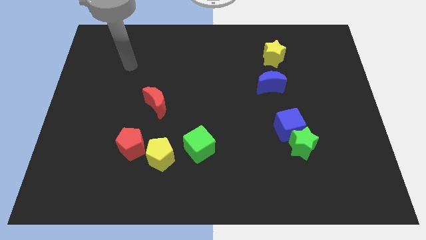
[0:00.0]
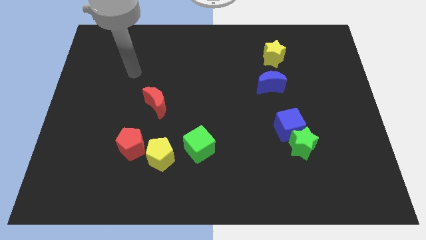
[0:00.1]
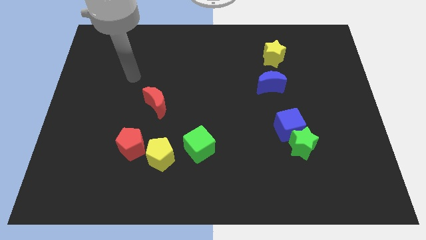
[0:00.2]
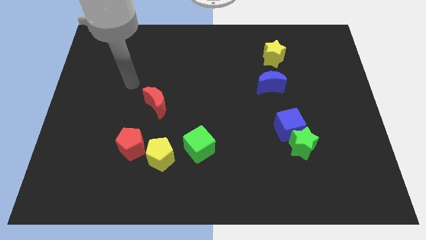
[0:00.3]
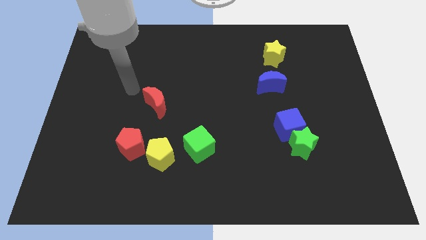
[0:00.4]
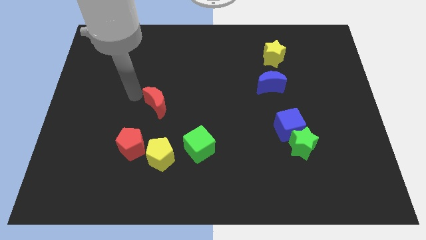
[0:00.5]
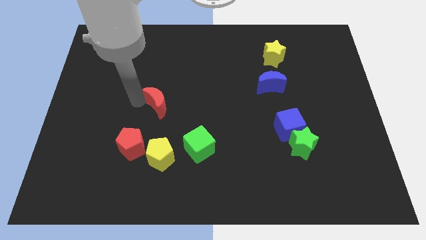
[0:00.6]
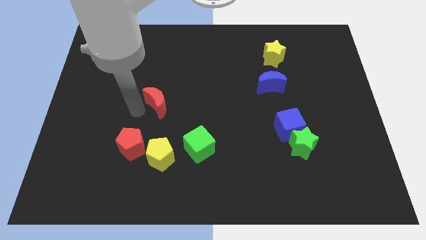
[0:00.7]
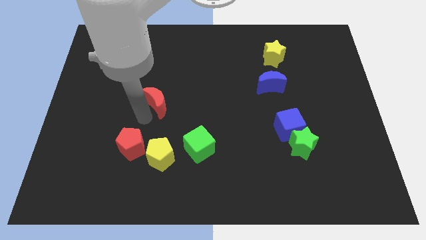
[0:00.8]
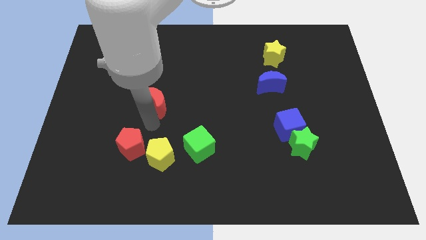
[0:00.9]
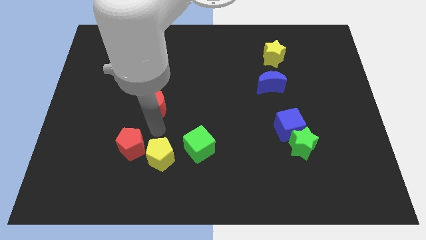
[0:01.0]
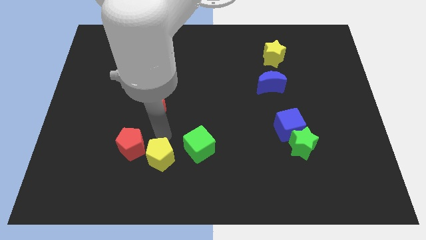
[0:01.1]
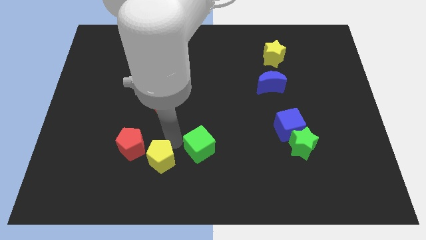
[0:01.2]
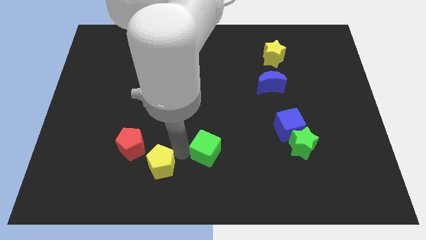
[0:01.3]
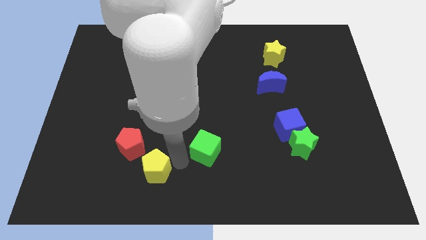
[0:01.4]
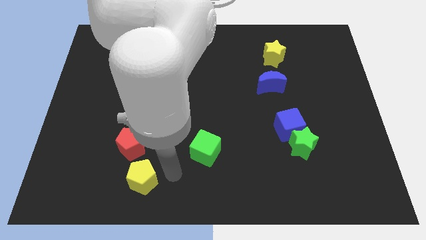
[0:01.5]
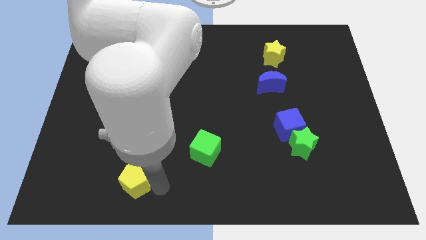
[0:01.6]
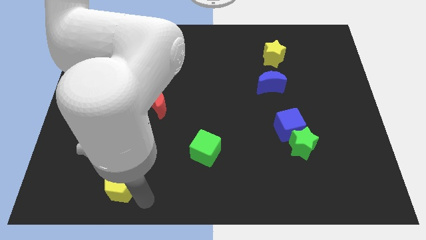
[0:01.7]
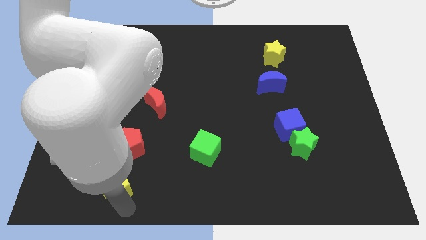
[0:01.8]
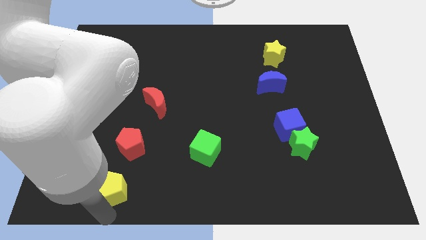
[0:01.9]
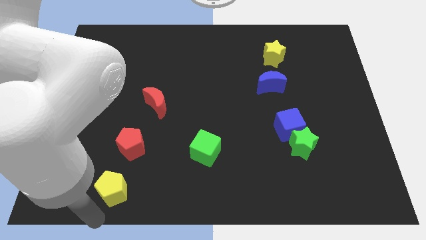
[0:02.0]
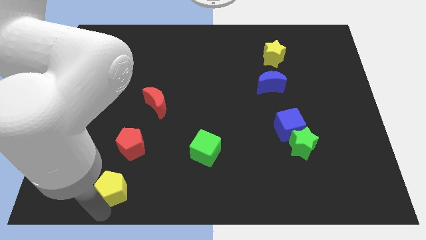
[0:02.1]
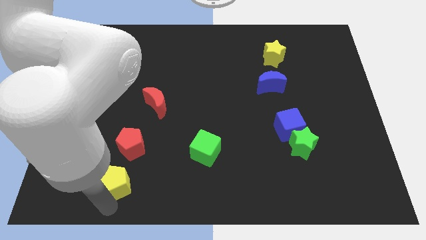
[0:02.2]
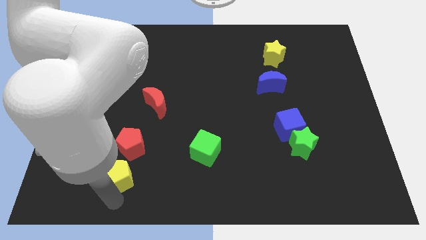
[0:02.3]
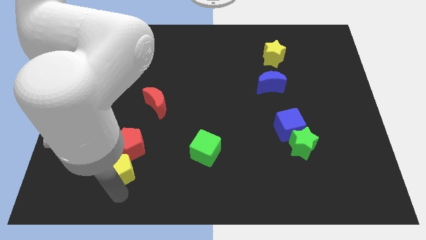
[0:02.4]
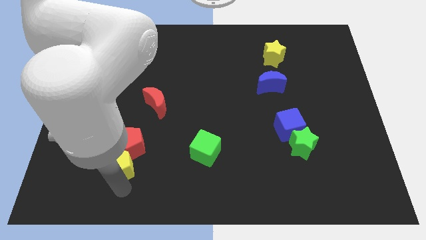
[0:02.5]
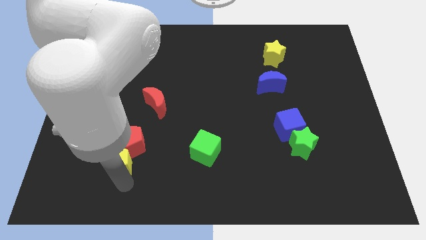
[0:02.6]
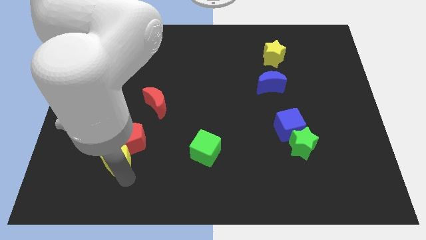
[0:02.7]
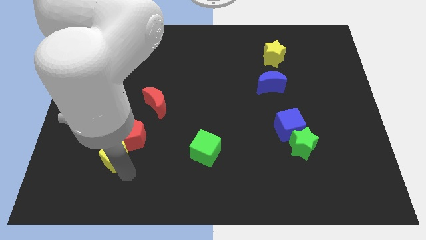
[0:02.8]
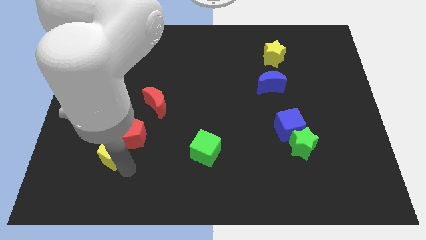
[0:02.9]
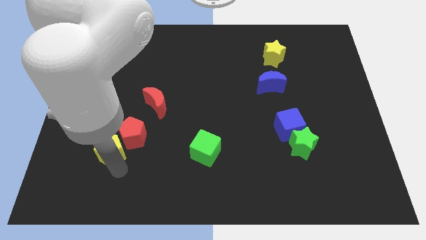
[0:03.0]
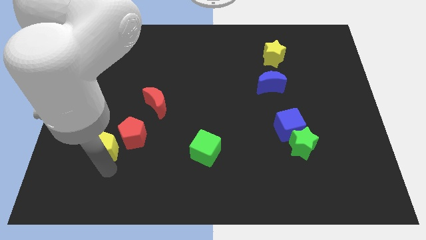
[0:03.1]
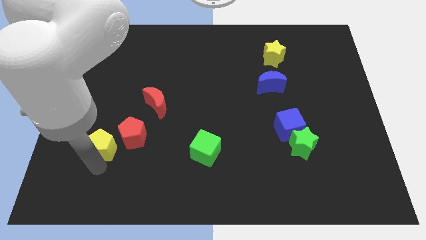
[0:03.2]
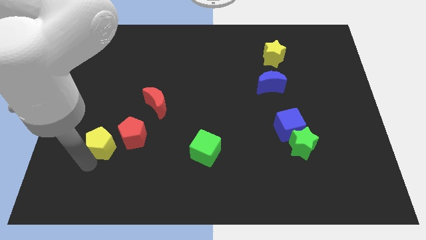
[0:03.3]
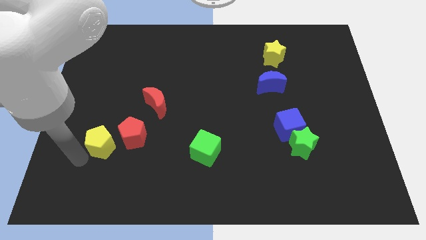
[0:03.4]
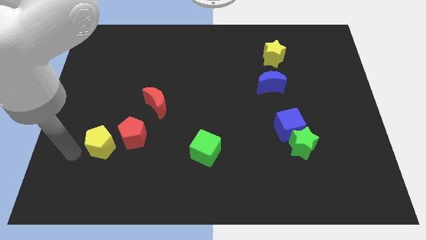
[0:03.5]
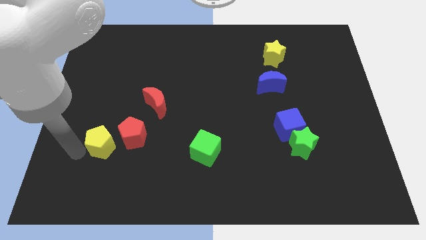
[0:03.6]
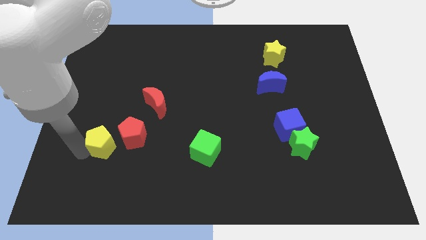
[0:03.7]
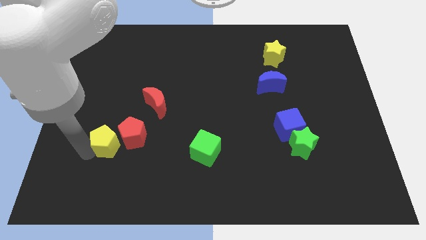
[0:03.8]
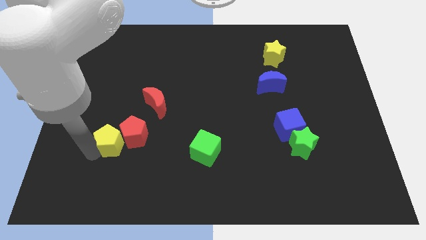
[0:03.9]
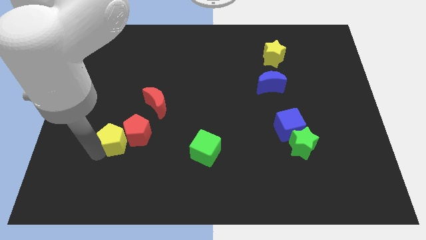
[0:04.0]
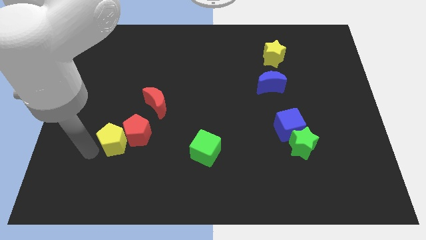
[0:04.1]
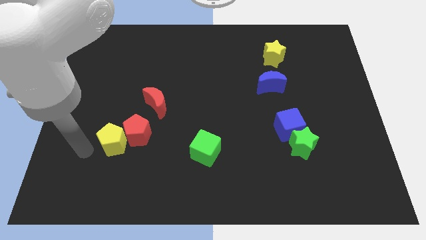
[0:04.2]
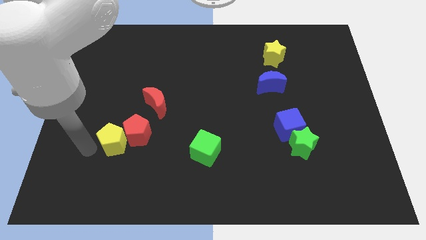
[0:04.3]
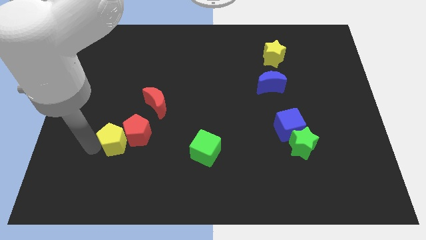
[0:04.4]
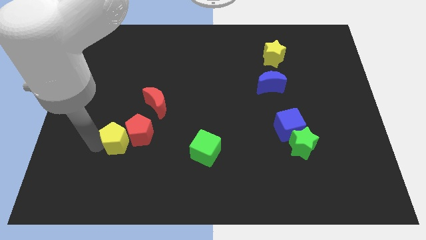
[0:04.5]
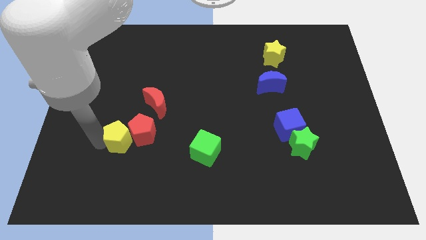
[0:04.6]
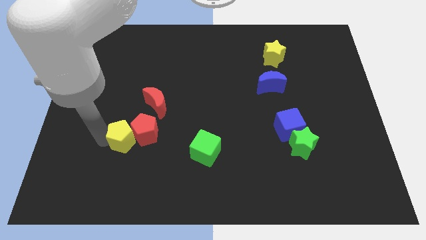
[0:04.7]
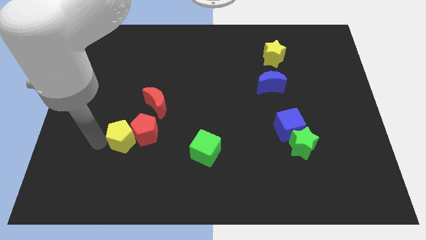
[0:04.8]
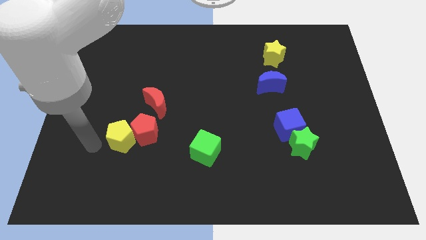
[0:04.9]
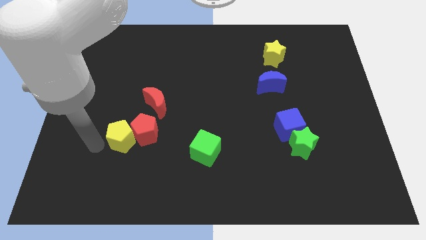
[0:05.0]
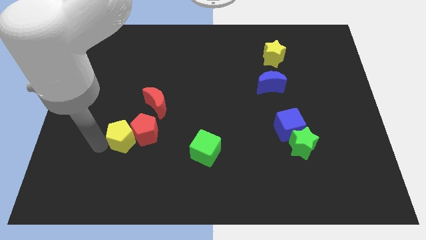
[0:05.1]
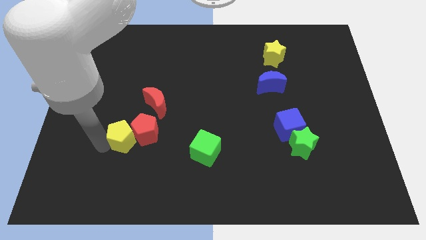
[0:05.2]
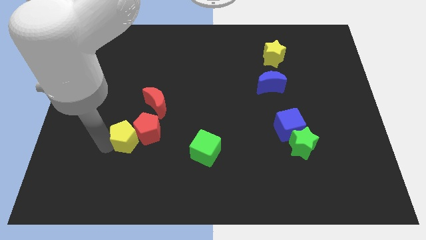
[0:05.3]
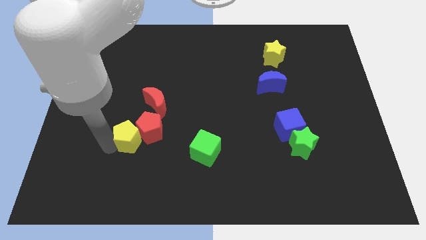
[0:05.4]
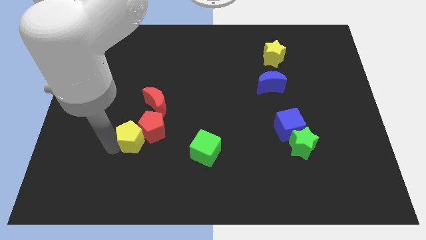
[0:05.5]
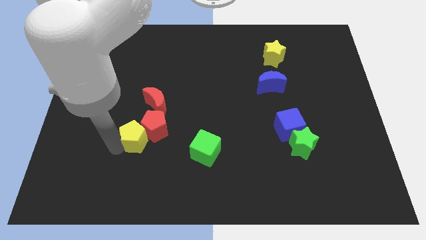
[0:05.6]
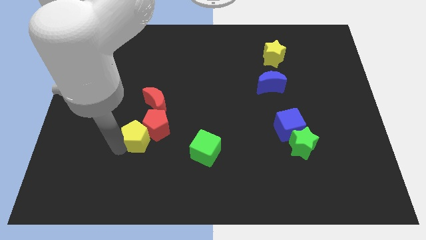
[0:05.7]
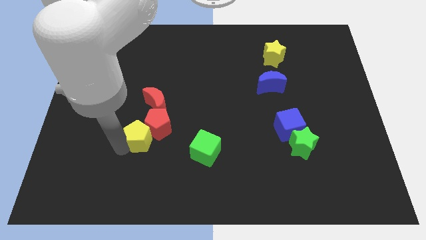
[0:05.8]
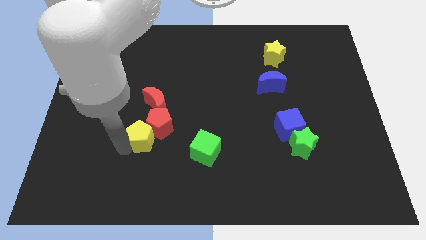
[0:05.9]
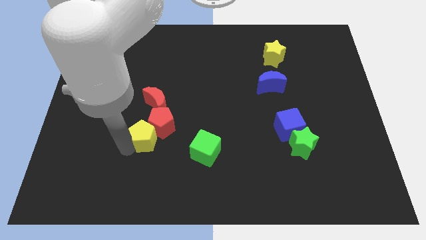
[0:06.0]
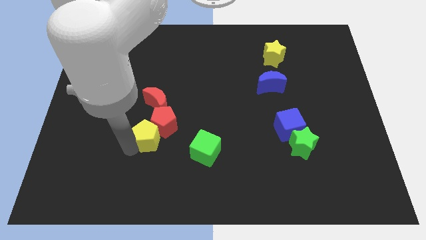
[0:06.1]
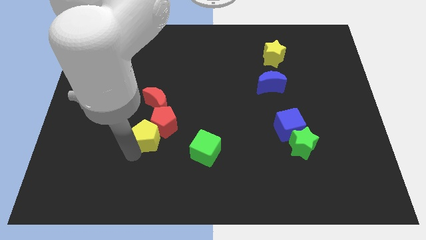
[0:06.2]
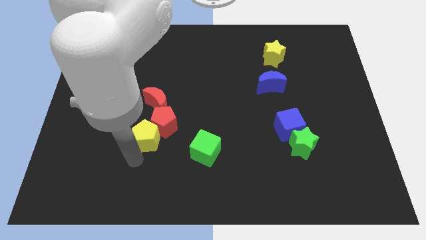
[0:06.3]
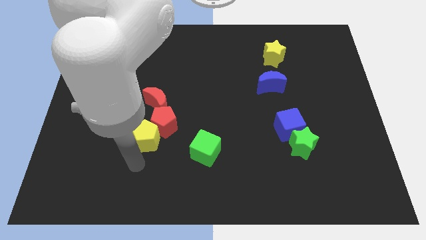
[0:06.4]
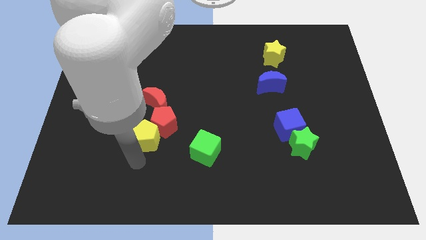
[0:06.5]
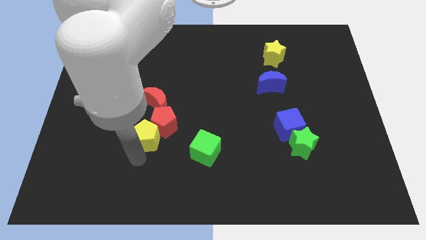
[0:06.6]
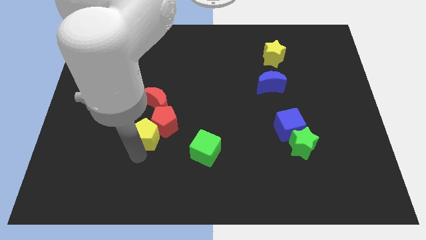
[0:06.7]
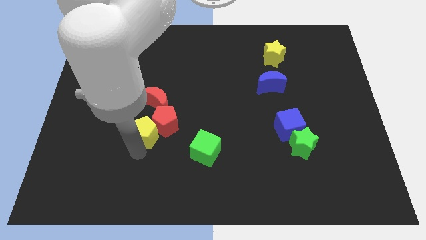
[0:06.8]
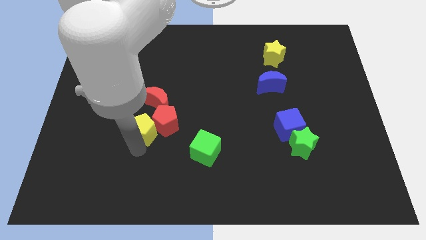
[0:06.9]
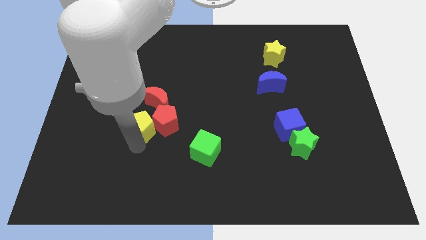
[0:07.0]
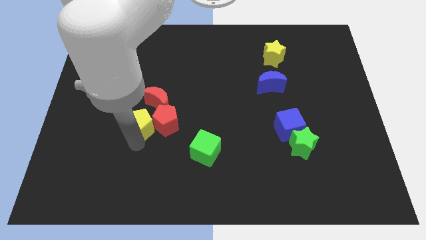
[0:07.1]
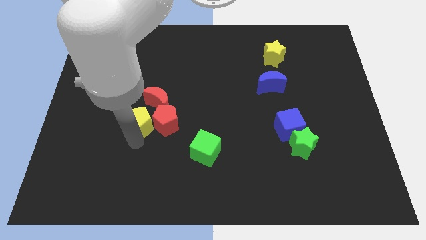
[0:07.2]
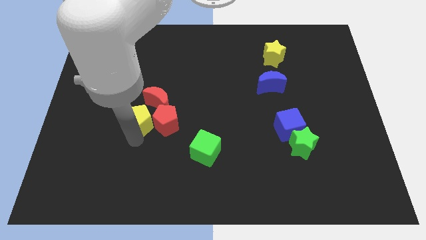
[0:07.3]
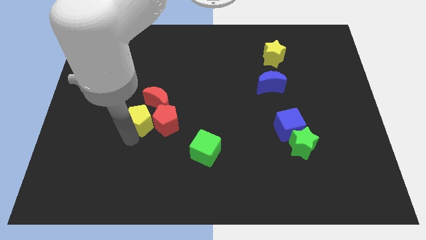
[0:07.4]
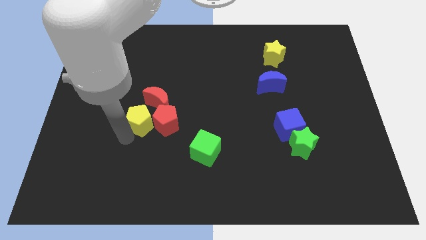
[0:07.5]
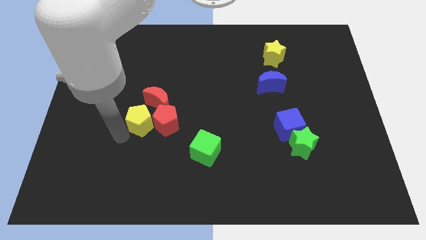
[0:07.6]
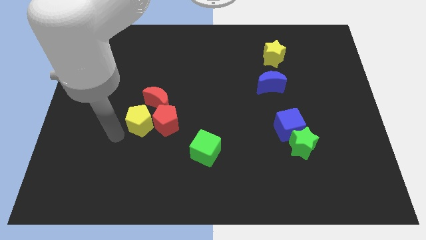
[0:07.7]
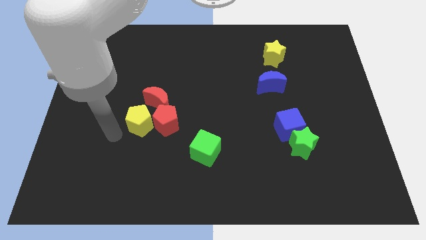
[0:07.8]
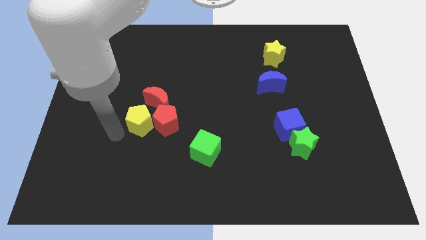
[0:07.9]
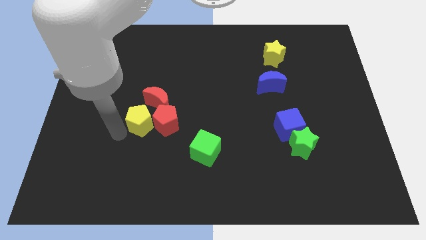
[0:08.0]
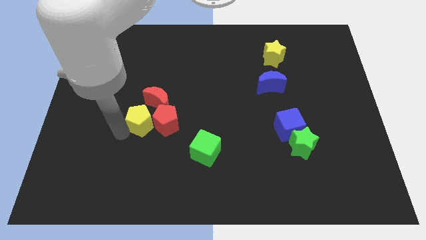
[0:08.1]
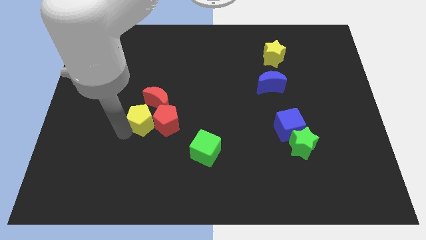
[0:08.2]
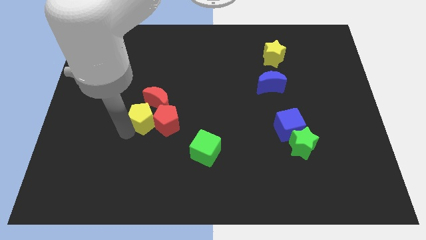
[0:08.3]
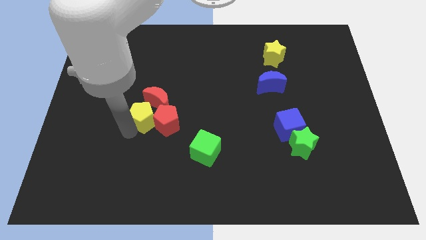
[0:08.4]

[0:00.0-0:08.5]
push the yellow pentagon to the red moon
